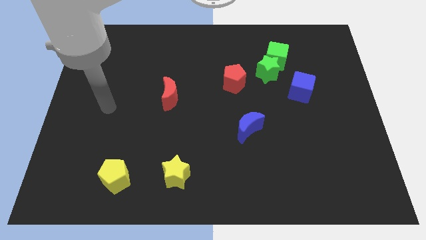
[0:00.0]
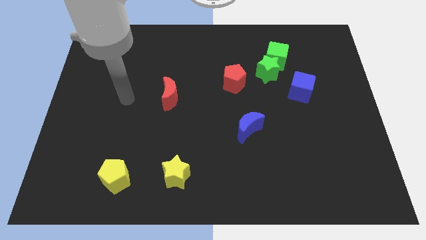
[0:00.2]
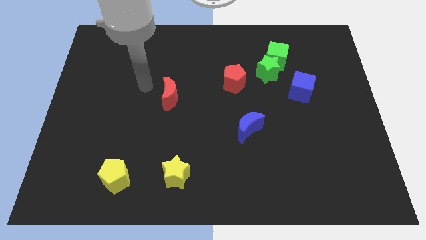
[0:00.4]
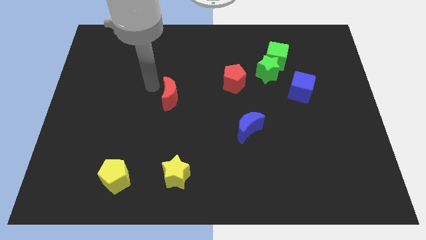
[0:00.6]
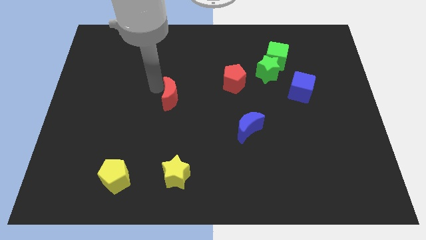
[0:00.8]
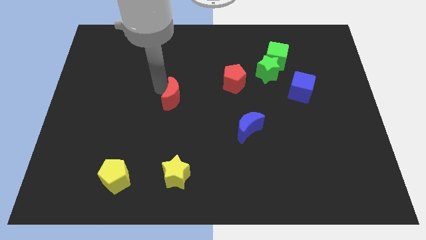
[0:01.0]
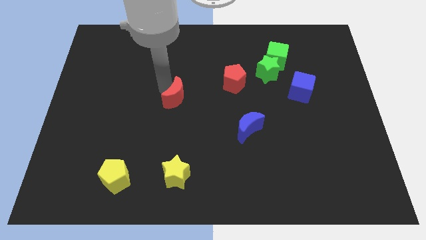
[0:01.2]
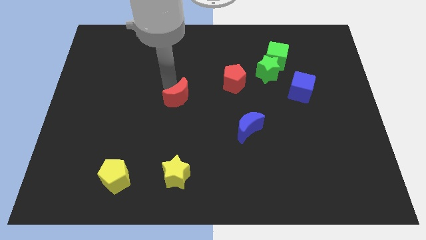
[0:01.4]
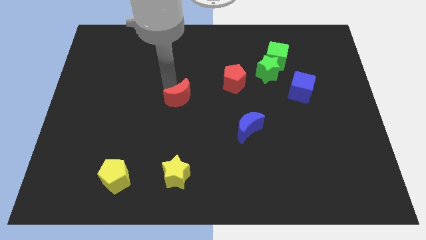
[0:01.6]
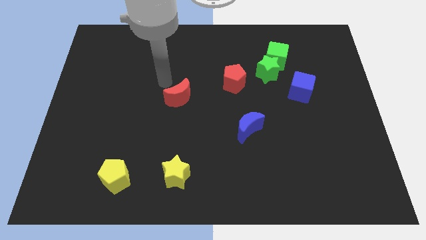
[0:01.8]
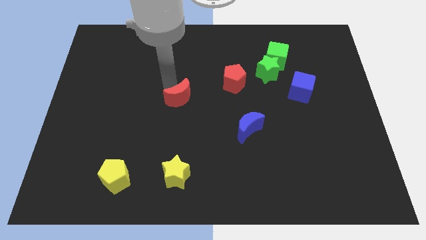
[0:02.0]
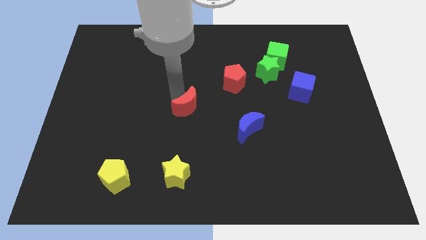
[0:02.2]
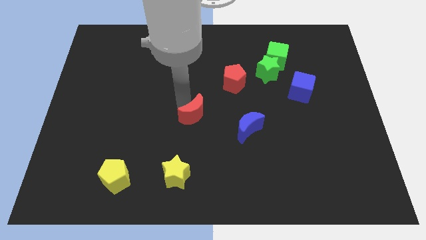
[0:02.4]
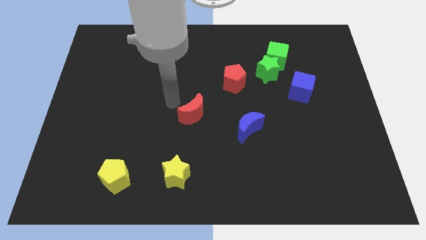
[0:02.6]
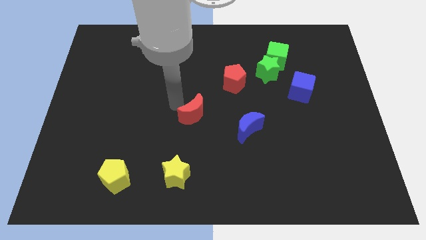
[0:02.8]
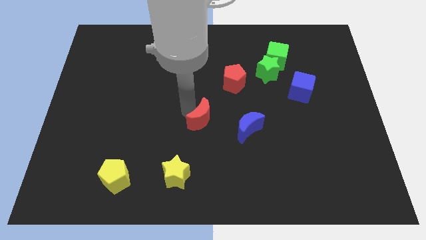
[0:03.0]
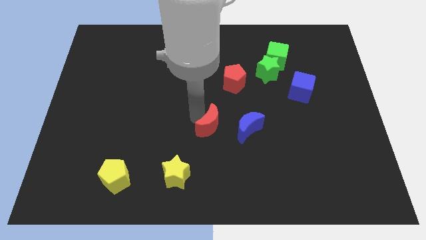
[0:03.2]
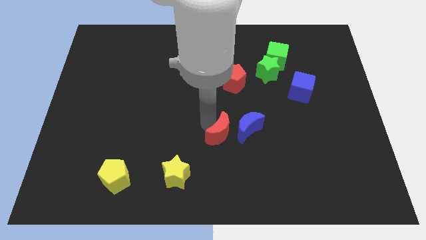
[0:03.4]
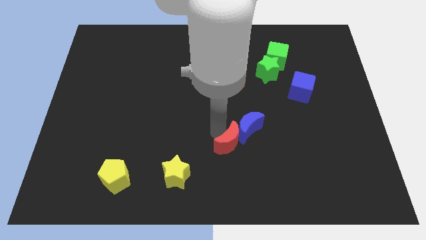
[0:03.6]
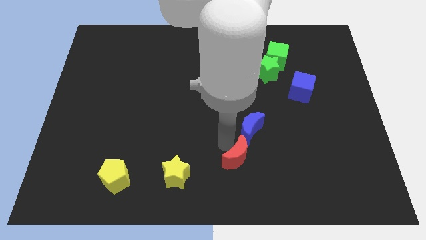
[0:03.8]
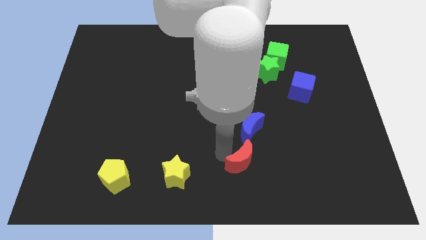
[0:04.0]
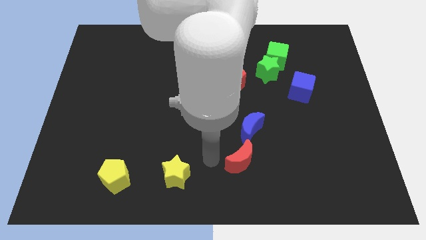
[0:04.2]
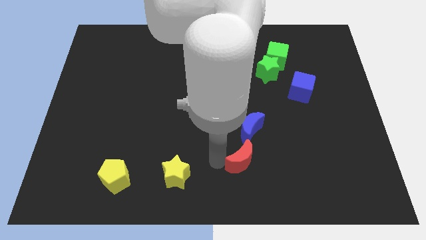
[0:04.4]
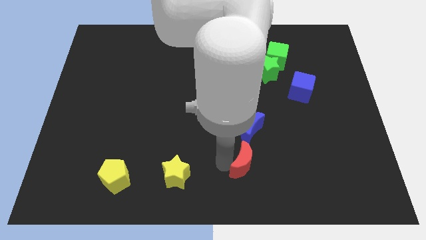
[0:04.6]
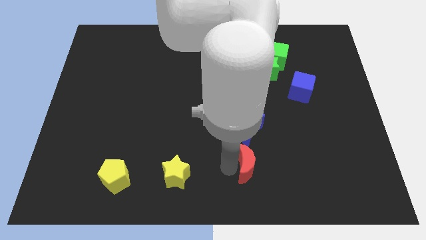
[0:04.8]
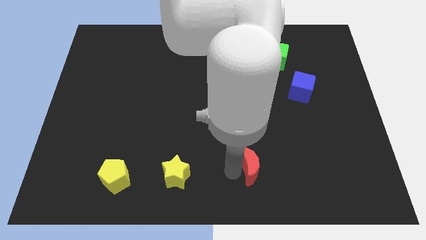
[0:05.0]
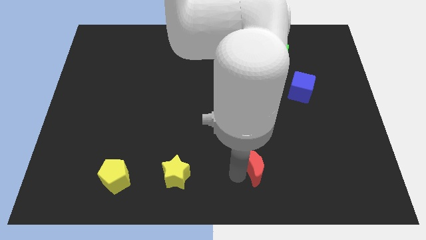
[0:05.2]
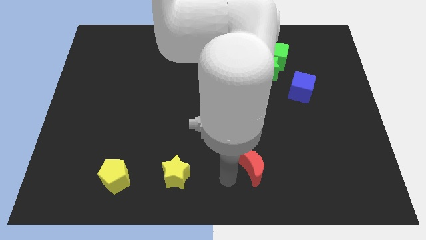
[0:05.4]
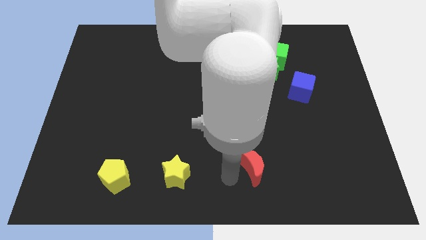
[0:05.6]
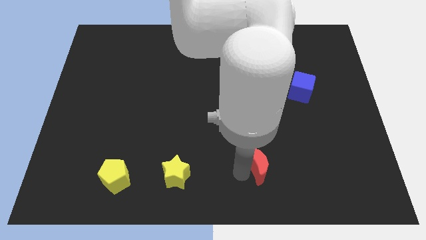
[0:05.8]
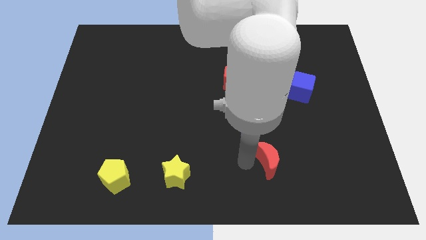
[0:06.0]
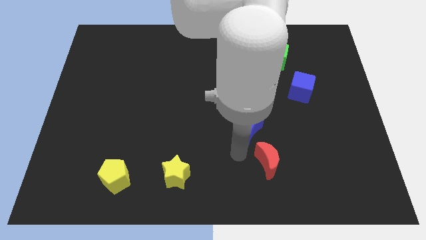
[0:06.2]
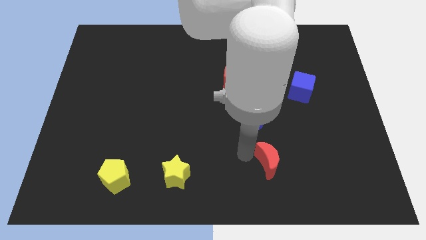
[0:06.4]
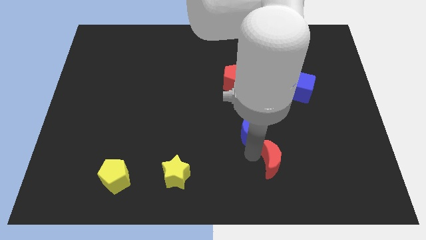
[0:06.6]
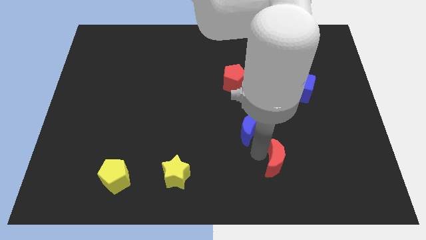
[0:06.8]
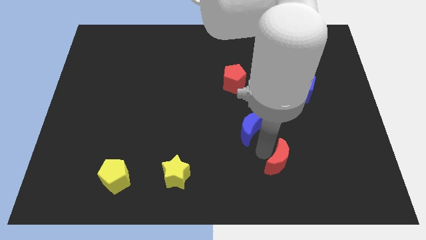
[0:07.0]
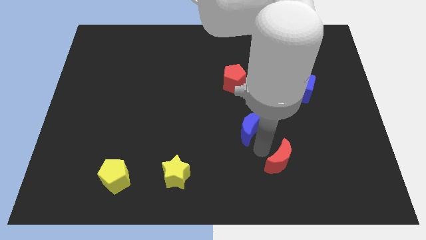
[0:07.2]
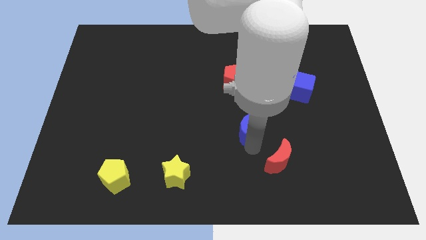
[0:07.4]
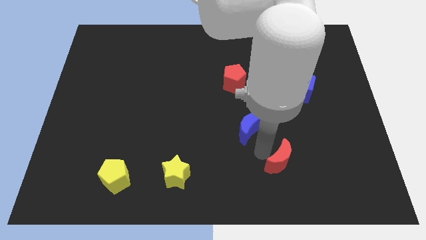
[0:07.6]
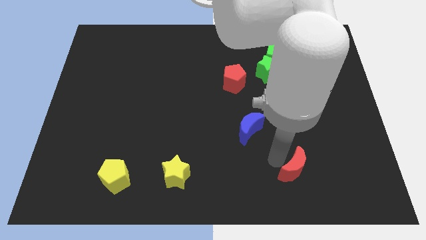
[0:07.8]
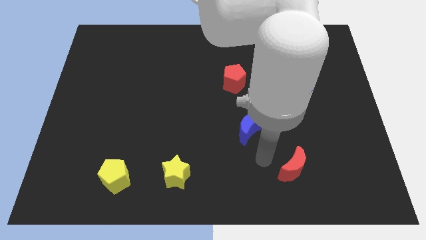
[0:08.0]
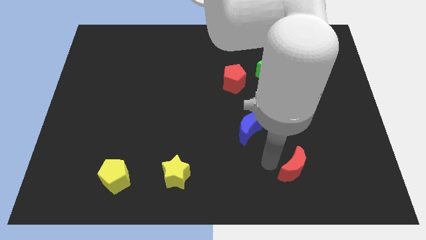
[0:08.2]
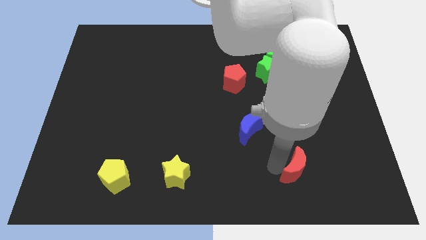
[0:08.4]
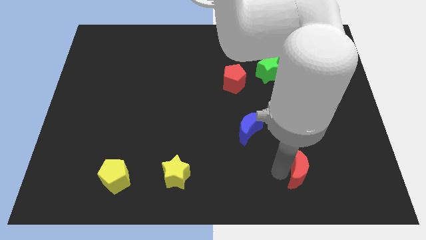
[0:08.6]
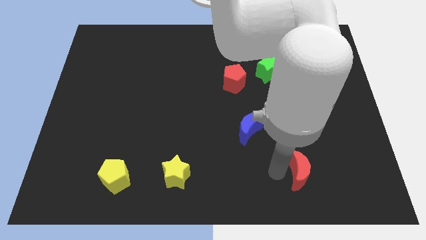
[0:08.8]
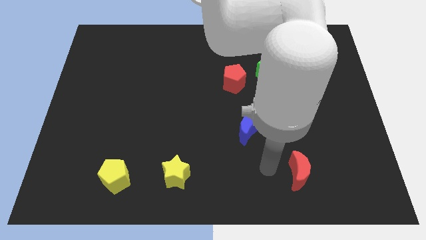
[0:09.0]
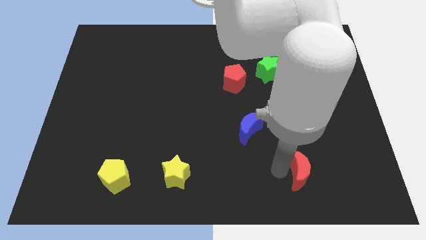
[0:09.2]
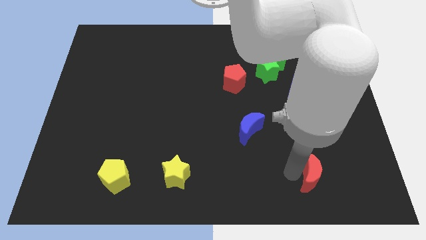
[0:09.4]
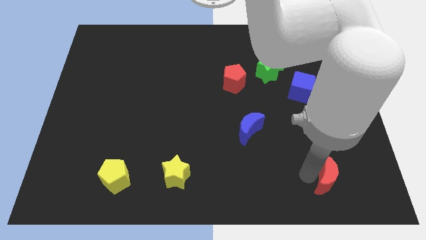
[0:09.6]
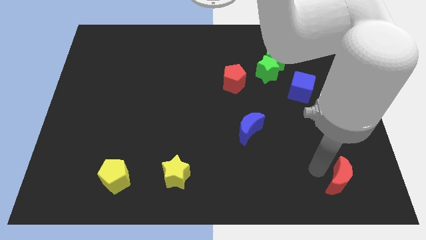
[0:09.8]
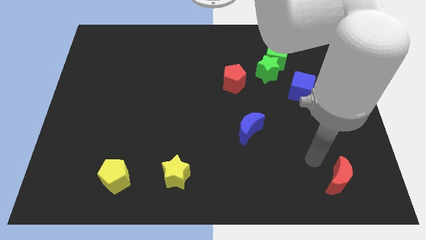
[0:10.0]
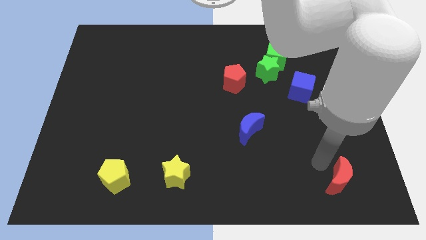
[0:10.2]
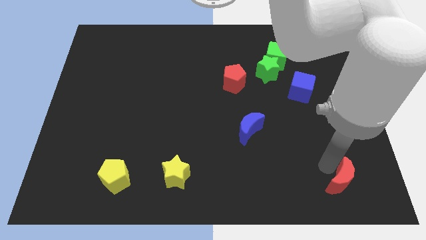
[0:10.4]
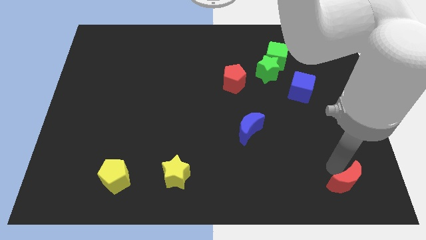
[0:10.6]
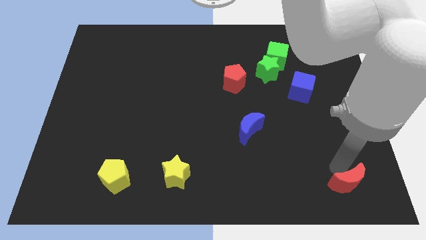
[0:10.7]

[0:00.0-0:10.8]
move the red moon to the lower right corner
